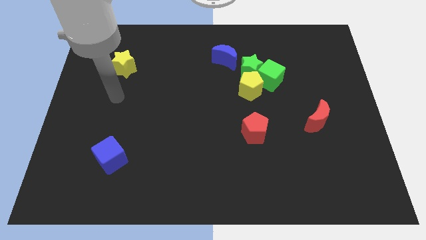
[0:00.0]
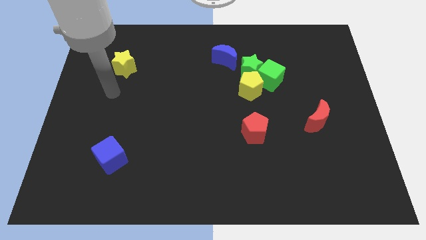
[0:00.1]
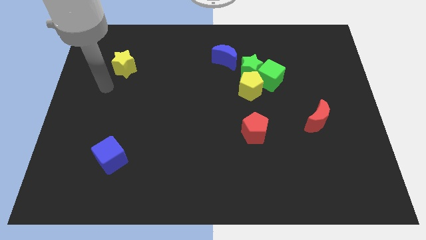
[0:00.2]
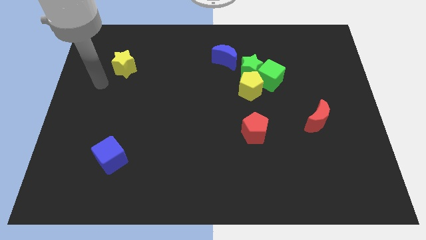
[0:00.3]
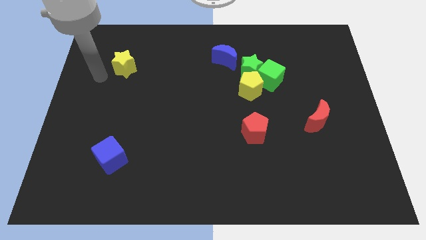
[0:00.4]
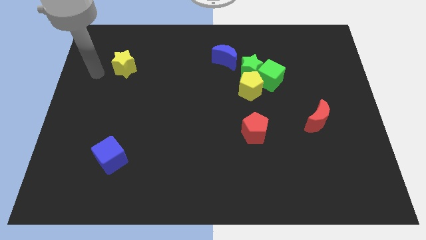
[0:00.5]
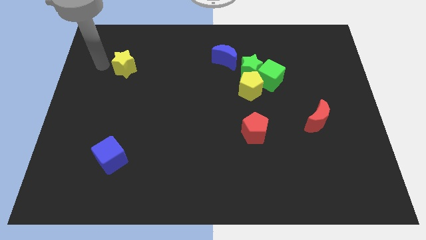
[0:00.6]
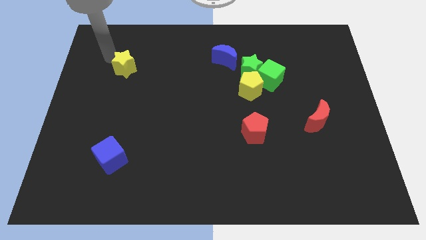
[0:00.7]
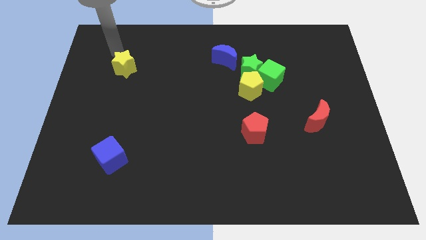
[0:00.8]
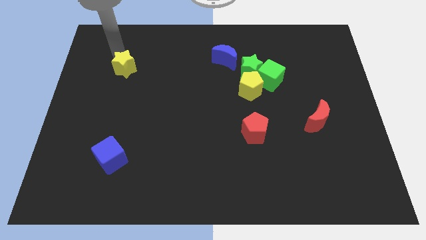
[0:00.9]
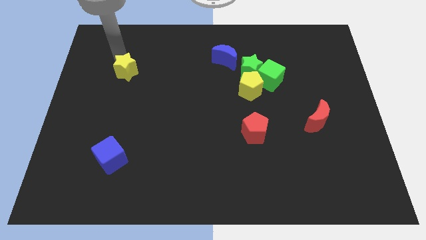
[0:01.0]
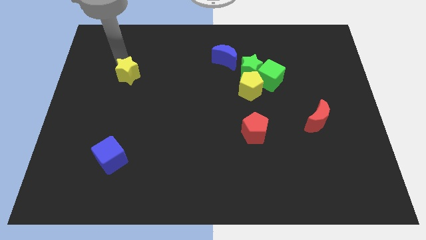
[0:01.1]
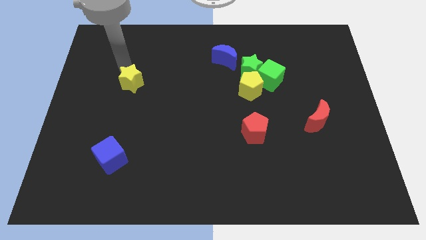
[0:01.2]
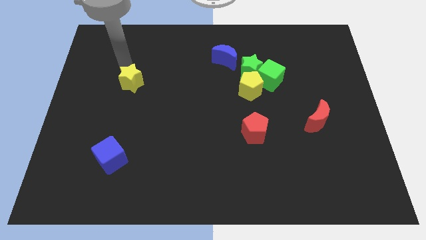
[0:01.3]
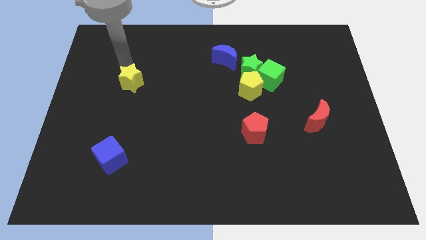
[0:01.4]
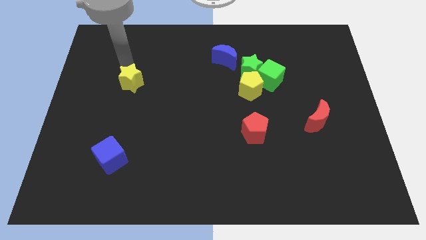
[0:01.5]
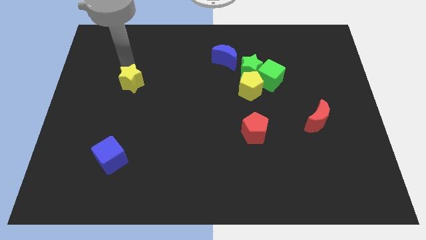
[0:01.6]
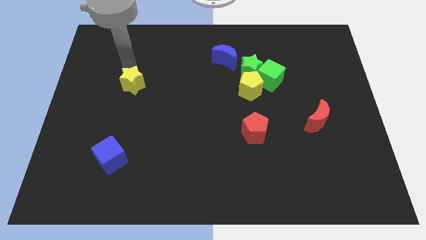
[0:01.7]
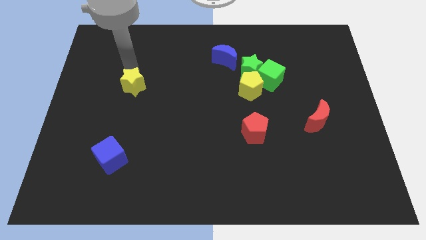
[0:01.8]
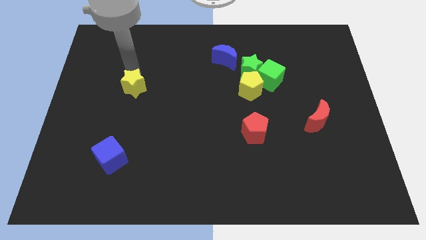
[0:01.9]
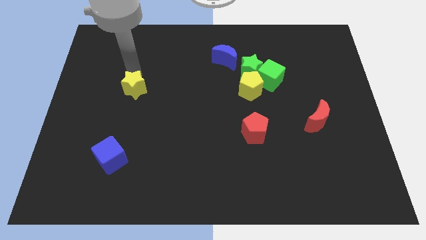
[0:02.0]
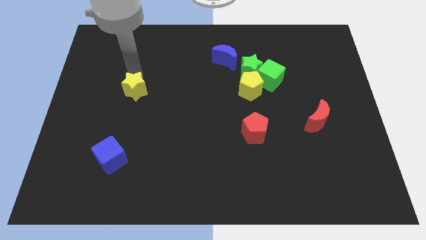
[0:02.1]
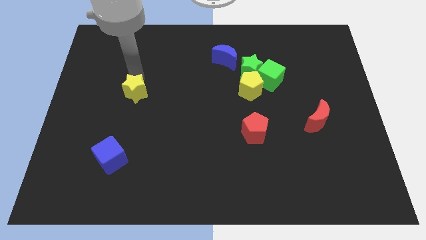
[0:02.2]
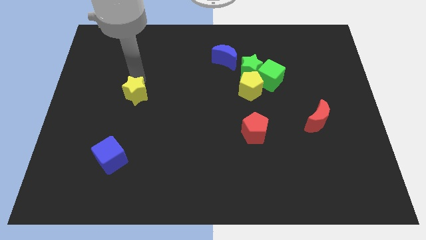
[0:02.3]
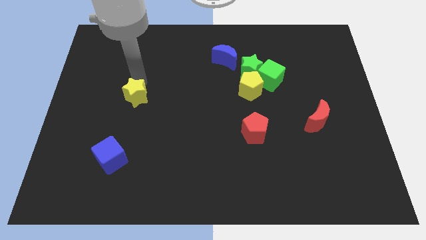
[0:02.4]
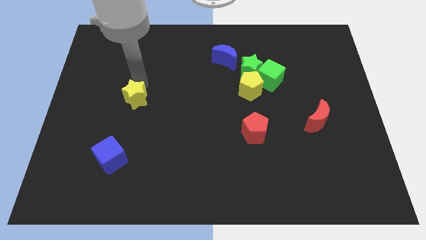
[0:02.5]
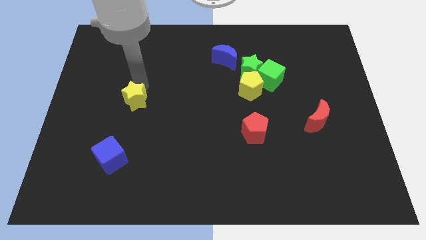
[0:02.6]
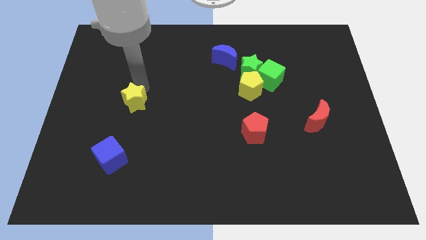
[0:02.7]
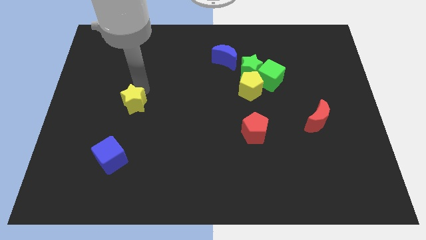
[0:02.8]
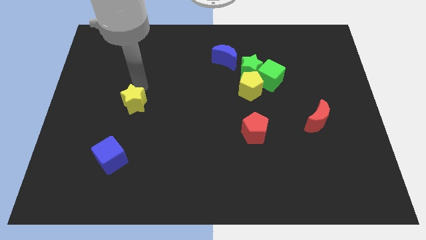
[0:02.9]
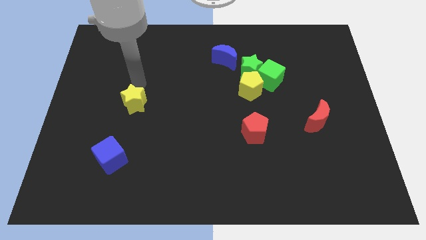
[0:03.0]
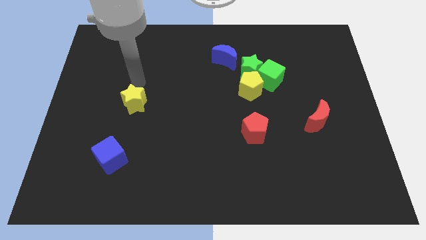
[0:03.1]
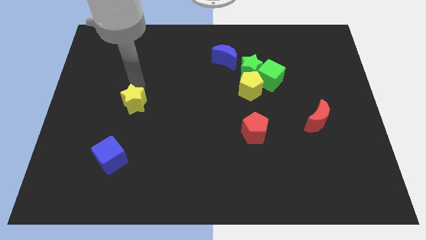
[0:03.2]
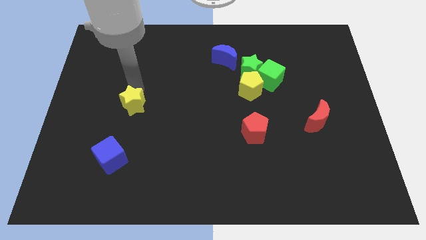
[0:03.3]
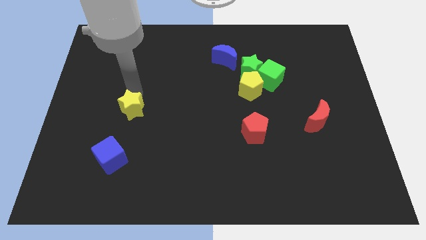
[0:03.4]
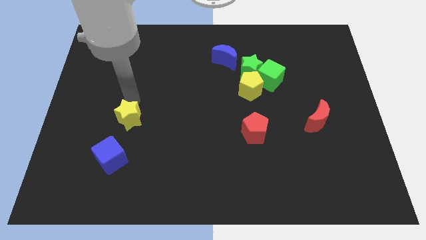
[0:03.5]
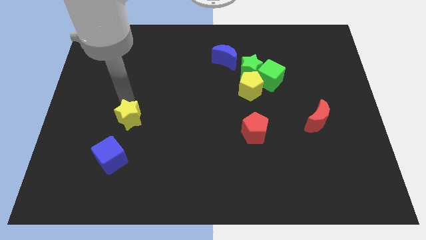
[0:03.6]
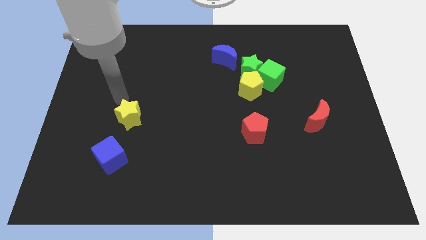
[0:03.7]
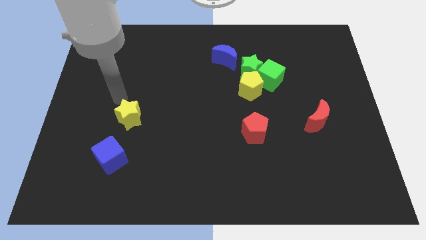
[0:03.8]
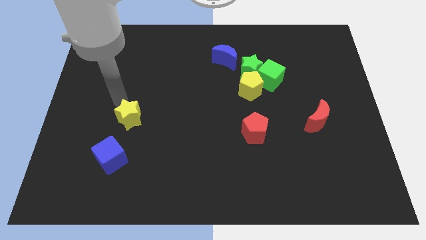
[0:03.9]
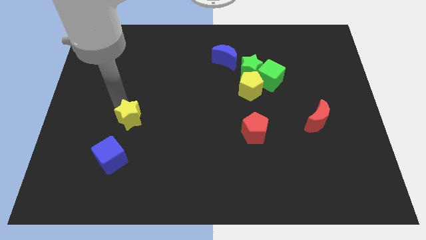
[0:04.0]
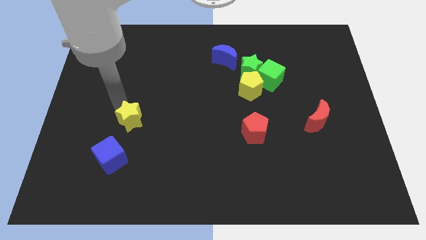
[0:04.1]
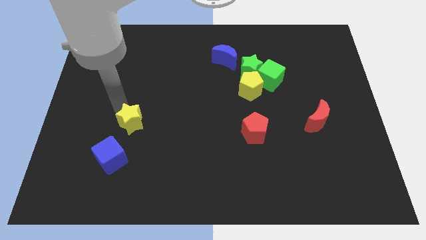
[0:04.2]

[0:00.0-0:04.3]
slide the yellow star diagonally up and to the right of the blue cube

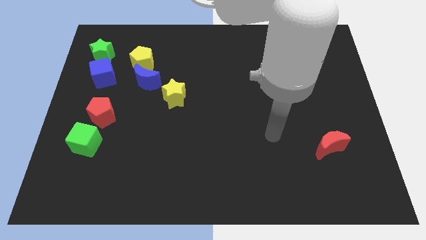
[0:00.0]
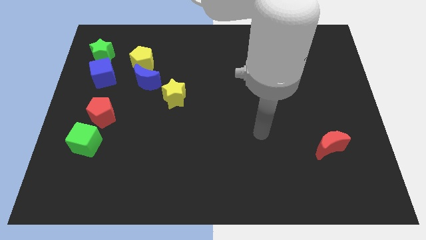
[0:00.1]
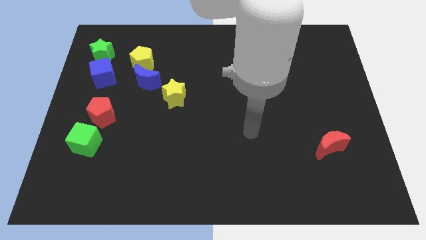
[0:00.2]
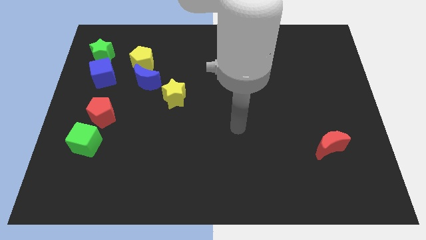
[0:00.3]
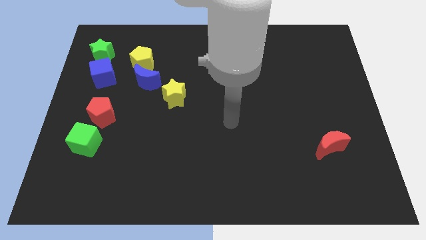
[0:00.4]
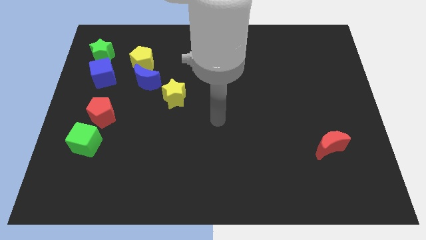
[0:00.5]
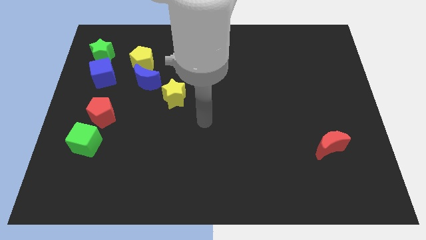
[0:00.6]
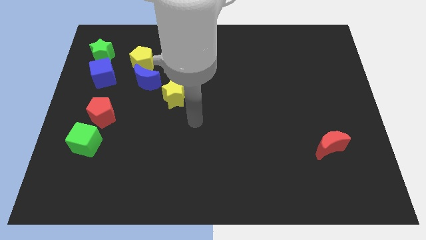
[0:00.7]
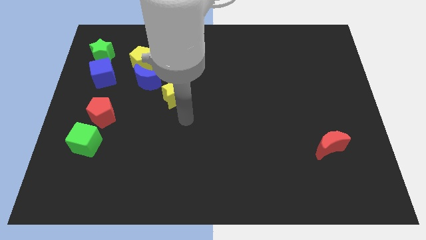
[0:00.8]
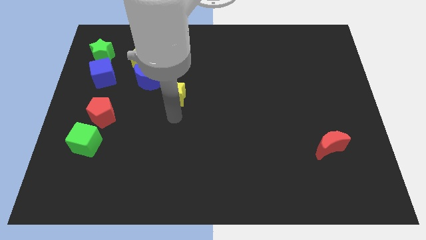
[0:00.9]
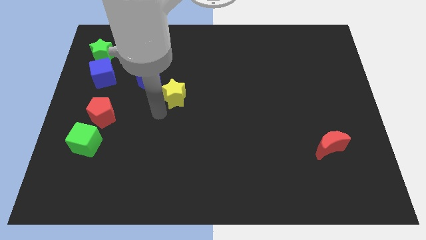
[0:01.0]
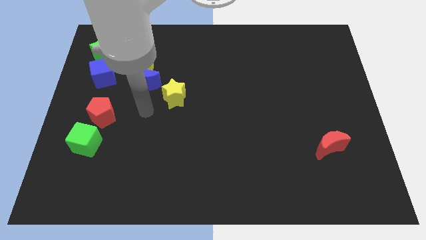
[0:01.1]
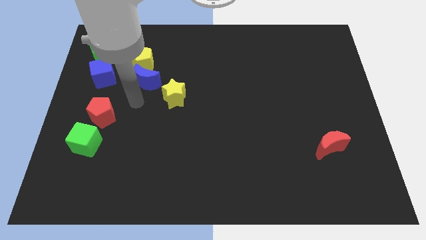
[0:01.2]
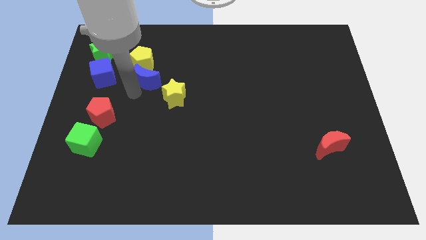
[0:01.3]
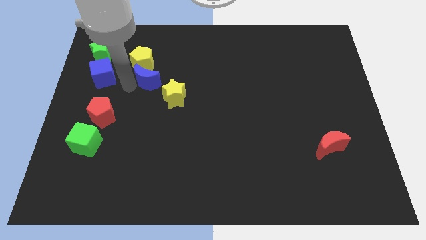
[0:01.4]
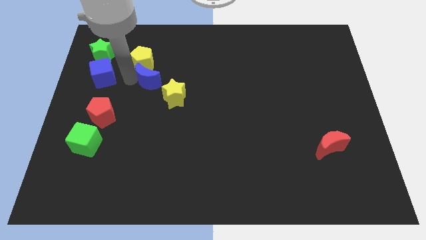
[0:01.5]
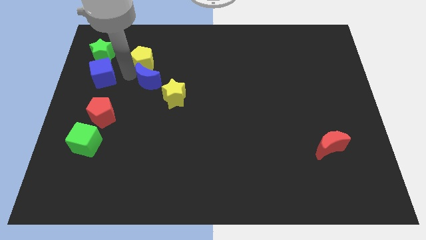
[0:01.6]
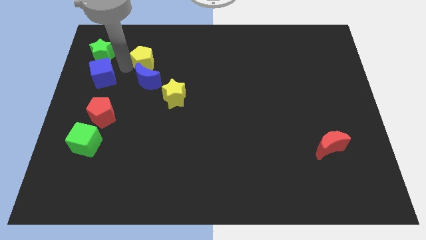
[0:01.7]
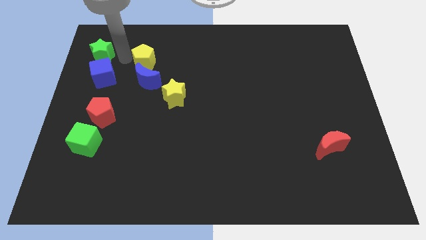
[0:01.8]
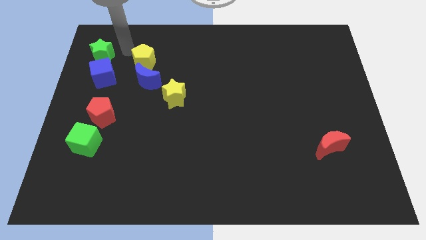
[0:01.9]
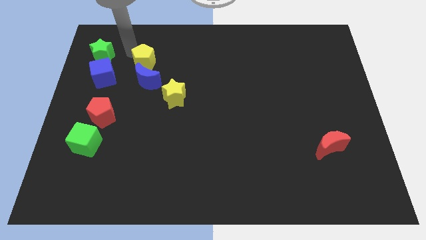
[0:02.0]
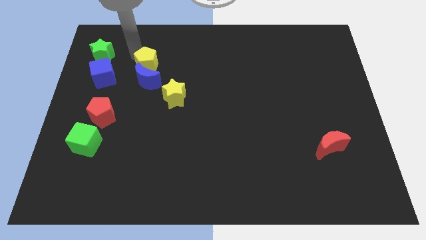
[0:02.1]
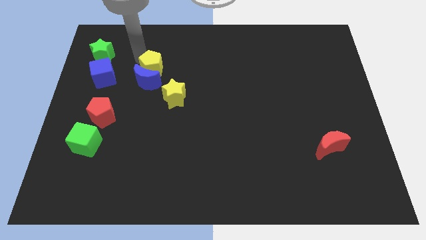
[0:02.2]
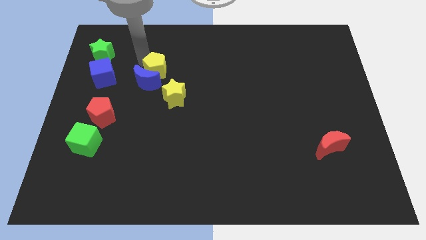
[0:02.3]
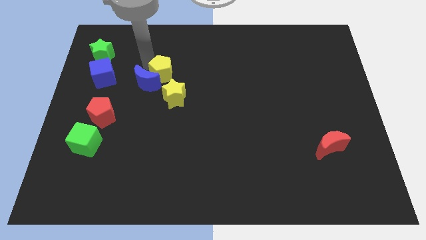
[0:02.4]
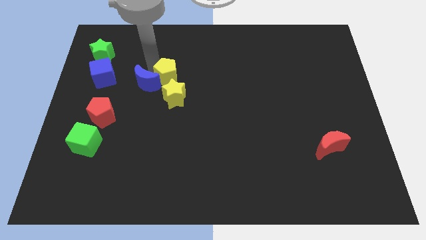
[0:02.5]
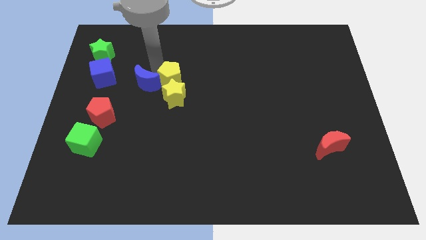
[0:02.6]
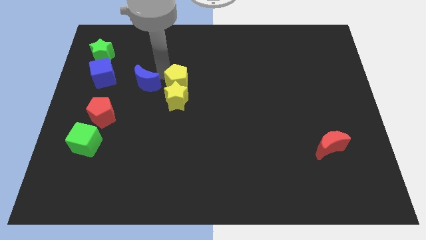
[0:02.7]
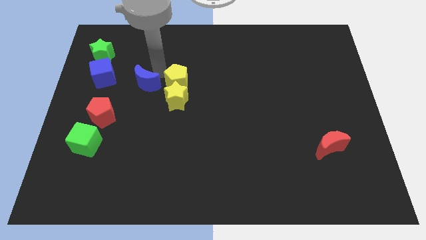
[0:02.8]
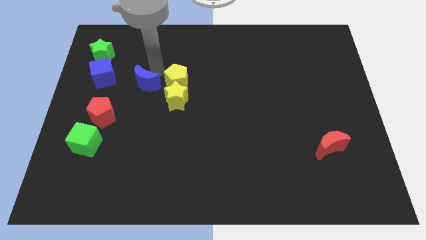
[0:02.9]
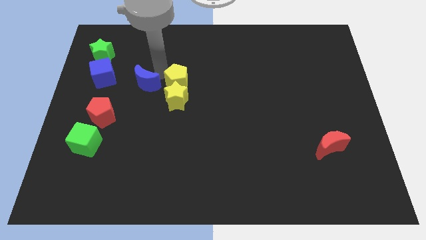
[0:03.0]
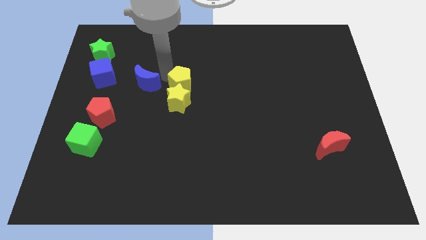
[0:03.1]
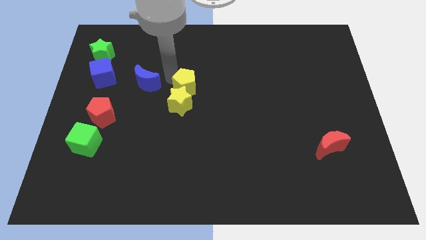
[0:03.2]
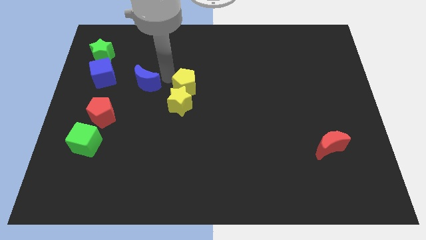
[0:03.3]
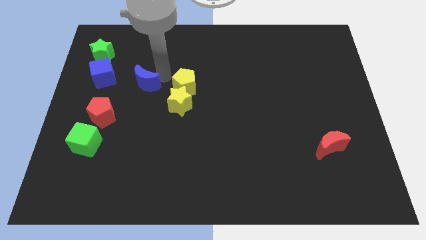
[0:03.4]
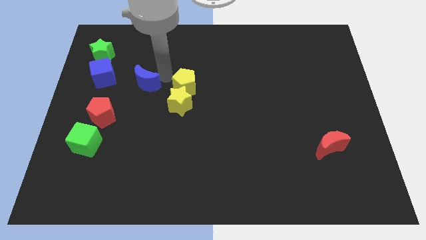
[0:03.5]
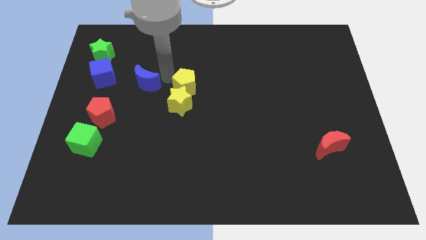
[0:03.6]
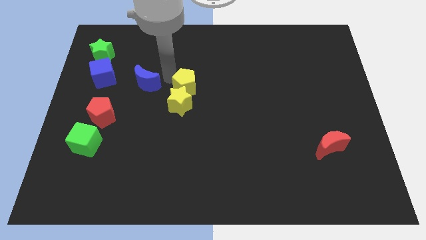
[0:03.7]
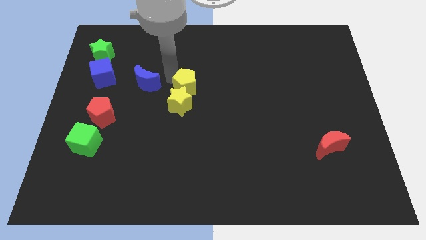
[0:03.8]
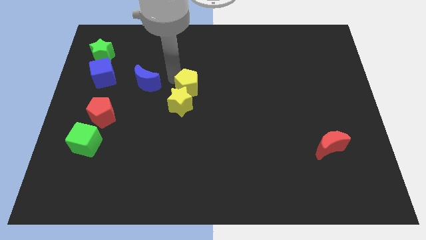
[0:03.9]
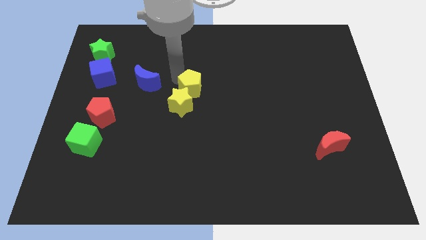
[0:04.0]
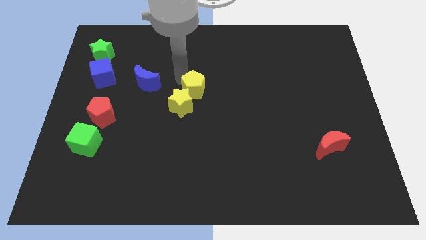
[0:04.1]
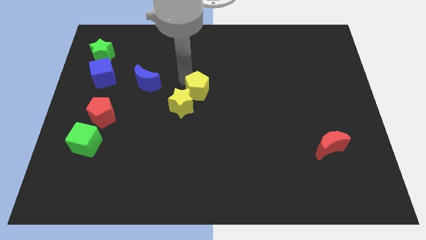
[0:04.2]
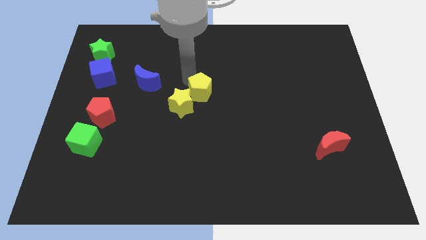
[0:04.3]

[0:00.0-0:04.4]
move the yellow pentagon right of the yellow star

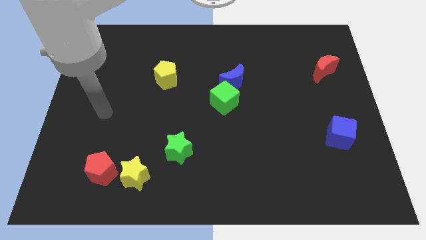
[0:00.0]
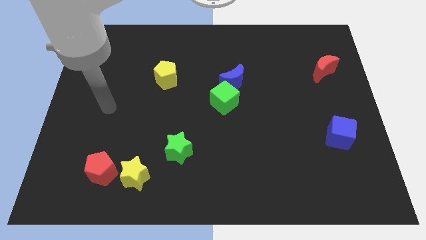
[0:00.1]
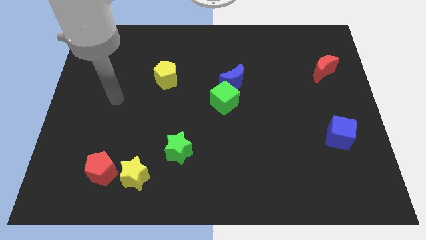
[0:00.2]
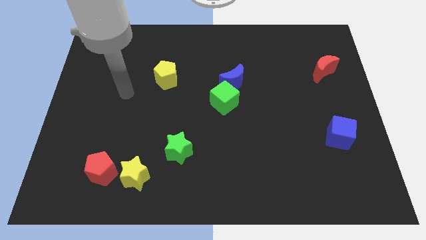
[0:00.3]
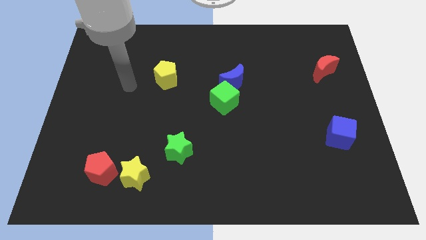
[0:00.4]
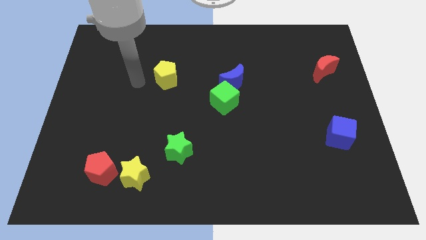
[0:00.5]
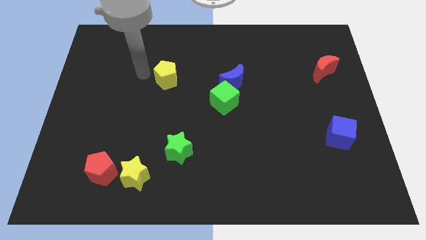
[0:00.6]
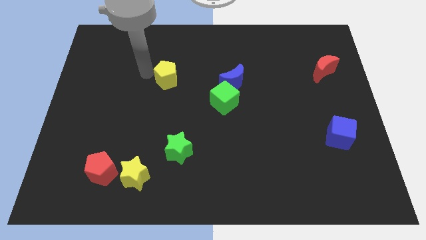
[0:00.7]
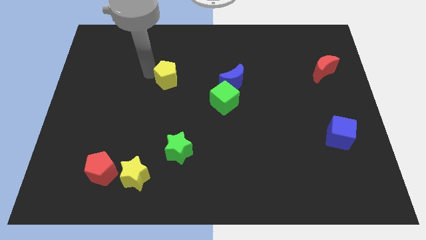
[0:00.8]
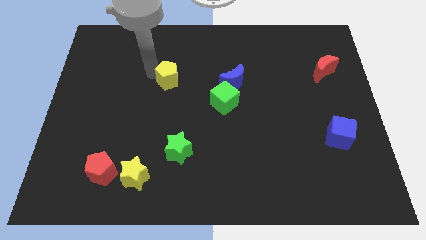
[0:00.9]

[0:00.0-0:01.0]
move the yellow pentagon to the left side of the blue moon
